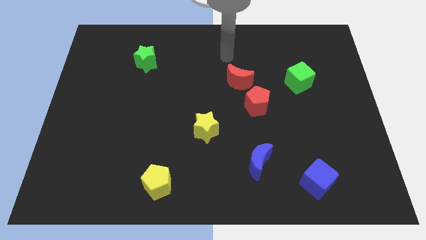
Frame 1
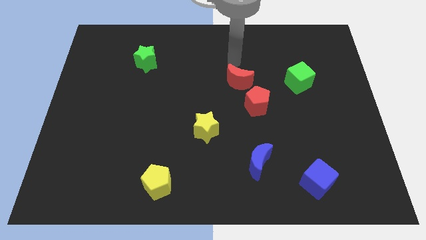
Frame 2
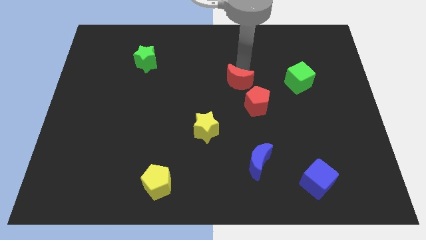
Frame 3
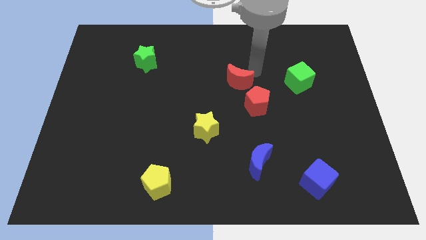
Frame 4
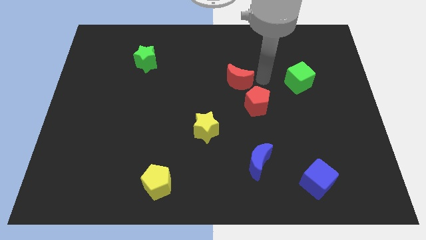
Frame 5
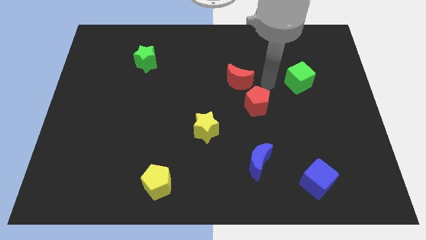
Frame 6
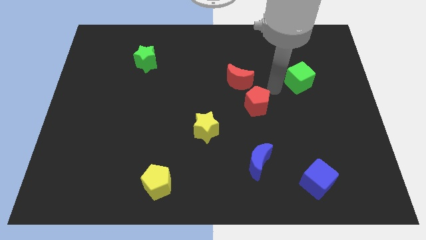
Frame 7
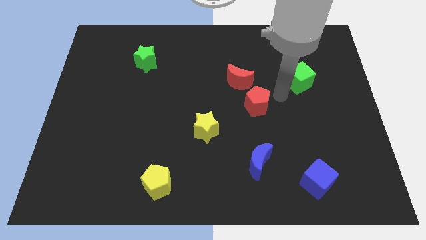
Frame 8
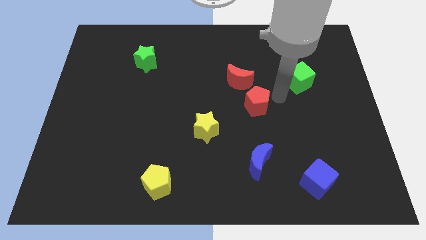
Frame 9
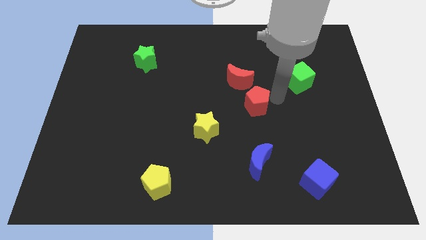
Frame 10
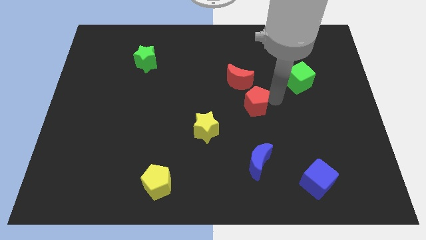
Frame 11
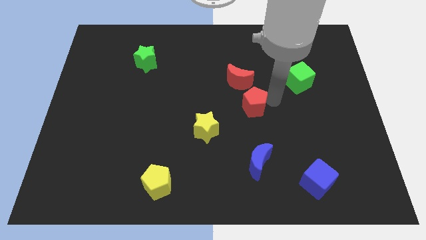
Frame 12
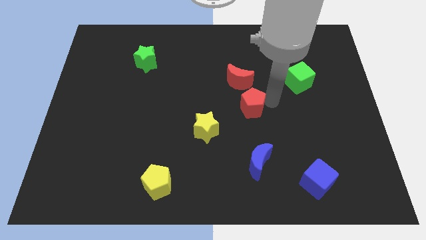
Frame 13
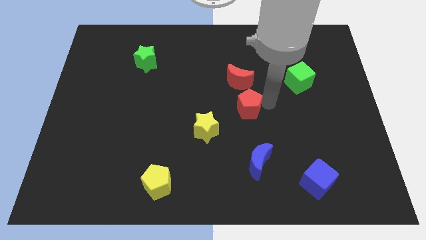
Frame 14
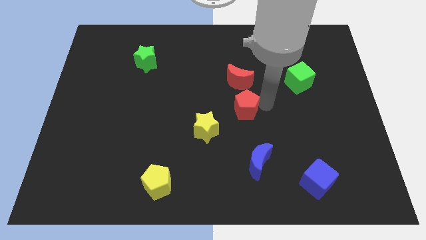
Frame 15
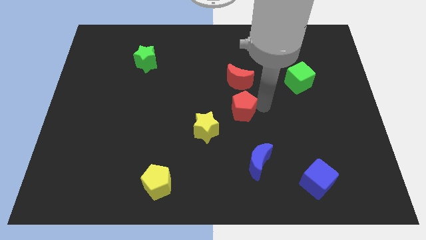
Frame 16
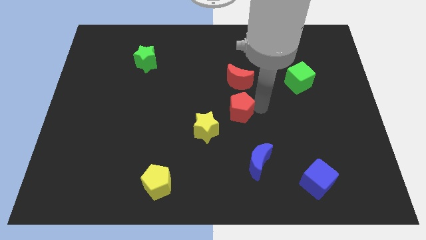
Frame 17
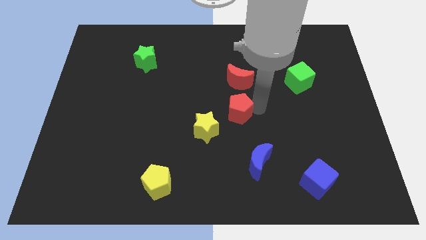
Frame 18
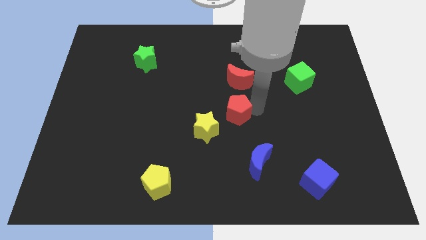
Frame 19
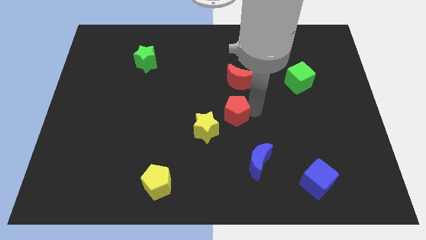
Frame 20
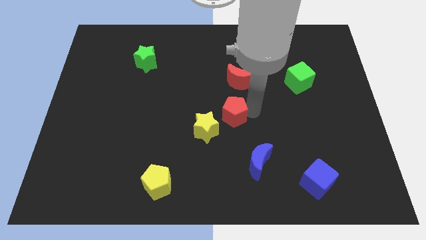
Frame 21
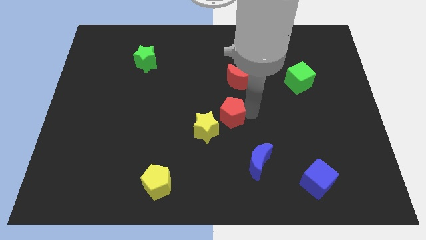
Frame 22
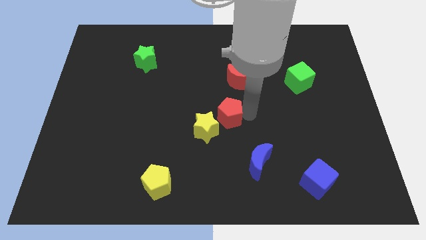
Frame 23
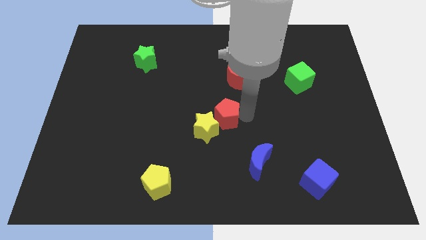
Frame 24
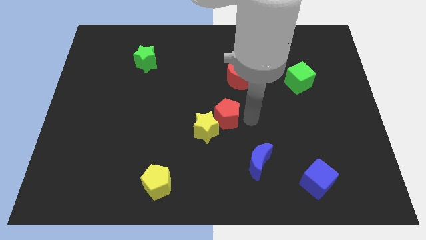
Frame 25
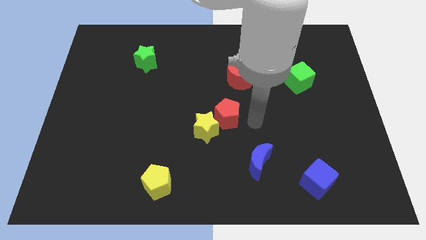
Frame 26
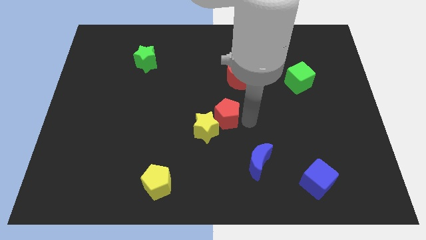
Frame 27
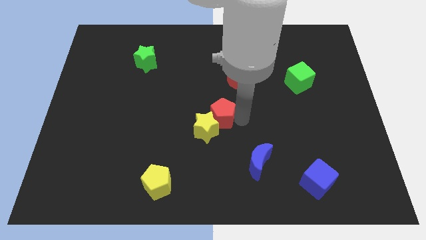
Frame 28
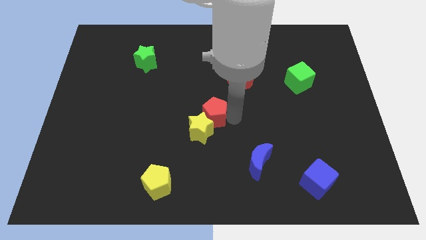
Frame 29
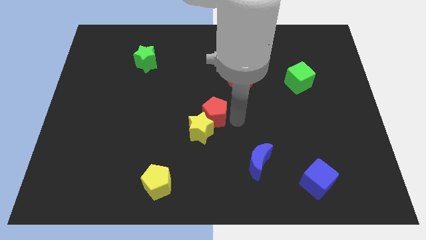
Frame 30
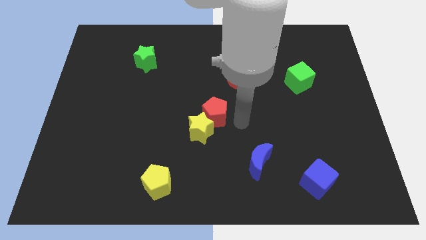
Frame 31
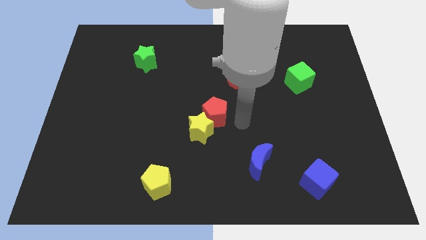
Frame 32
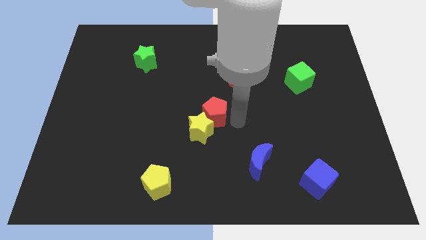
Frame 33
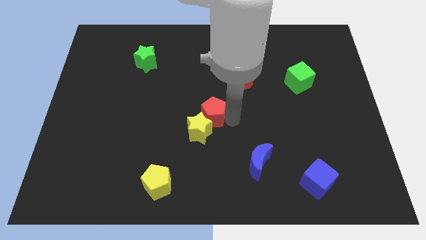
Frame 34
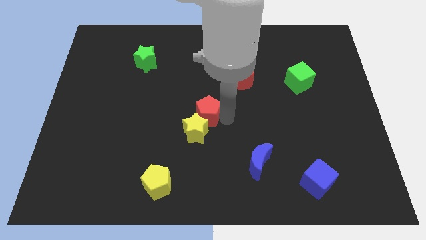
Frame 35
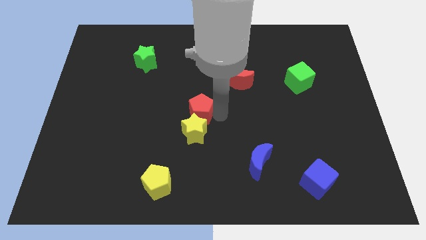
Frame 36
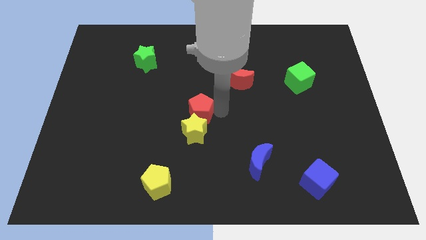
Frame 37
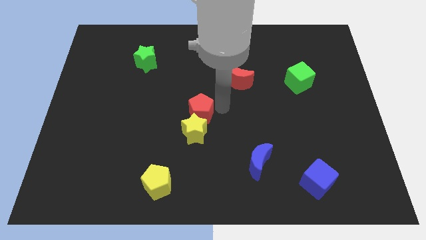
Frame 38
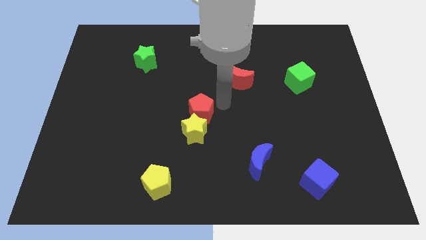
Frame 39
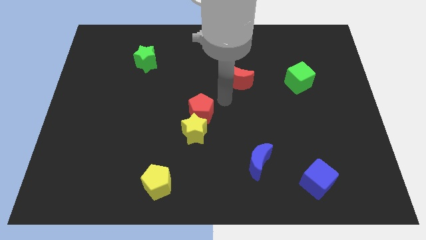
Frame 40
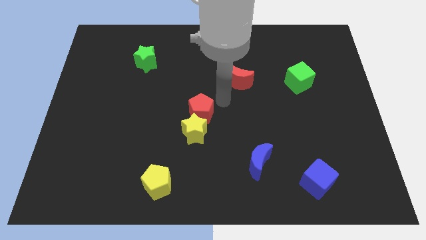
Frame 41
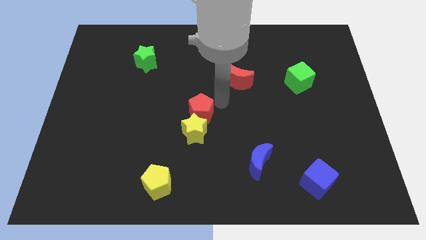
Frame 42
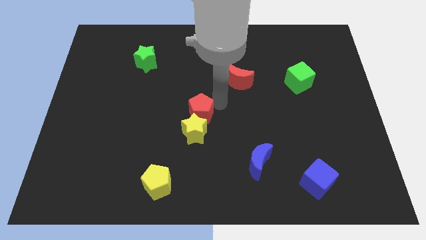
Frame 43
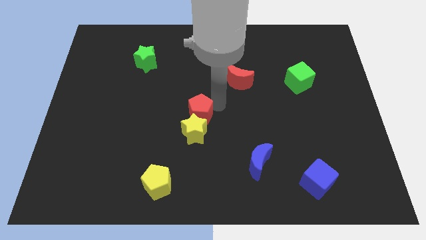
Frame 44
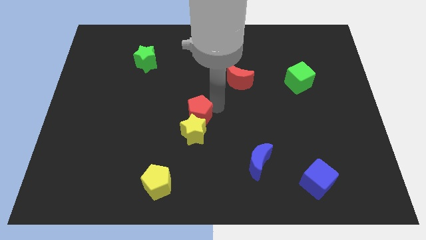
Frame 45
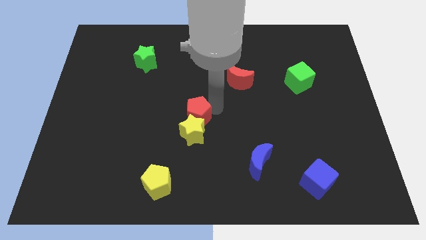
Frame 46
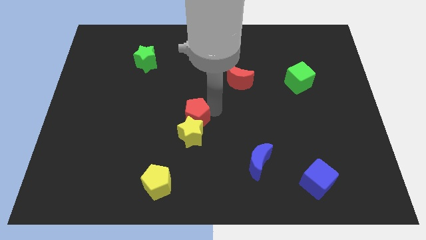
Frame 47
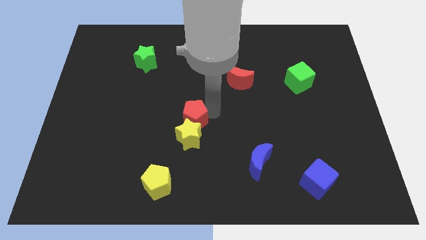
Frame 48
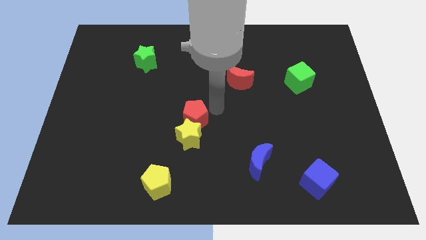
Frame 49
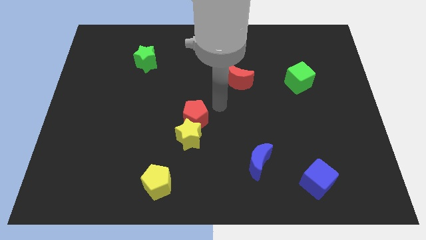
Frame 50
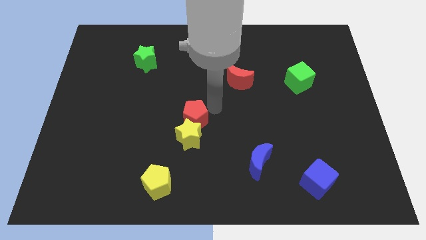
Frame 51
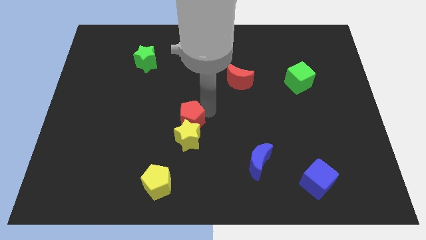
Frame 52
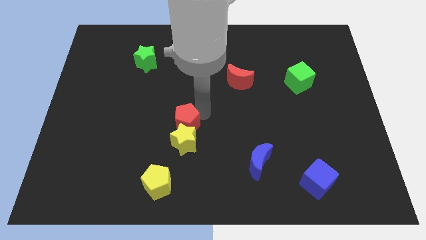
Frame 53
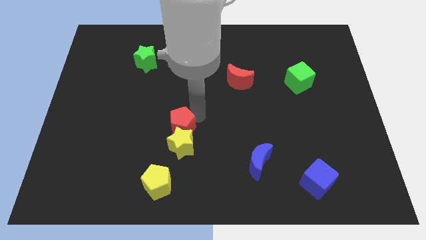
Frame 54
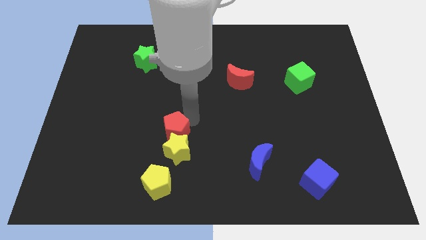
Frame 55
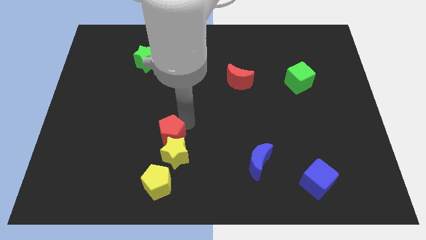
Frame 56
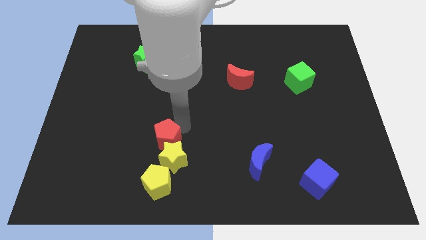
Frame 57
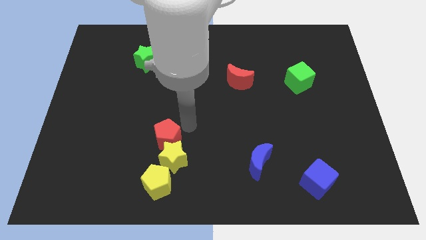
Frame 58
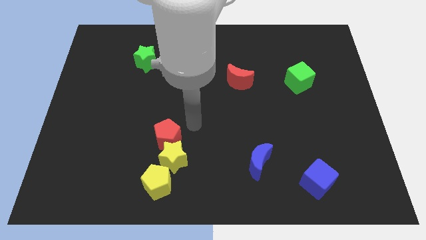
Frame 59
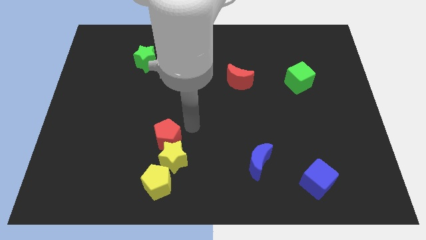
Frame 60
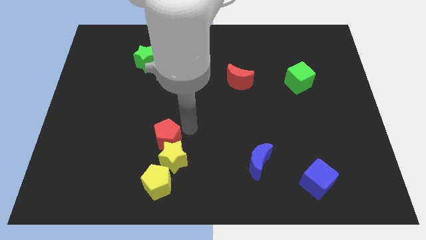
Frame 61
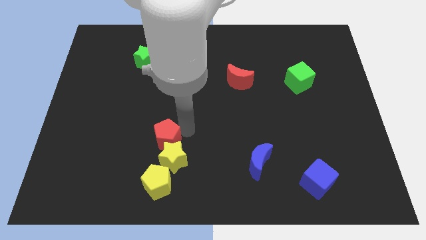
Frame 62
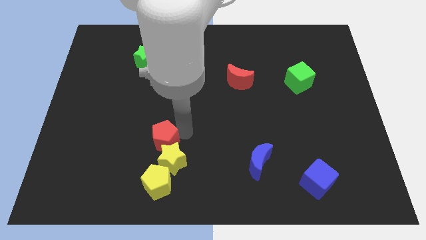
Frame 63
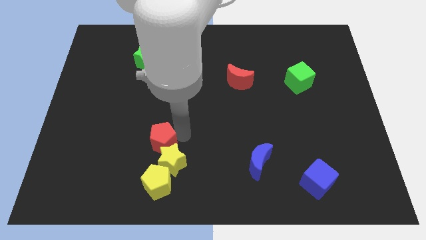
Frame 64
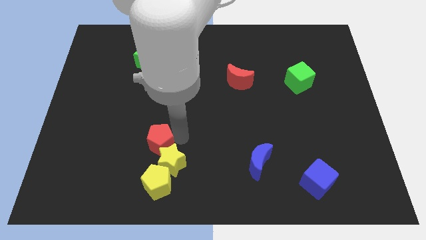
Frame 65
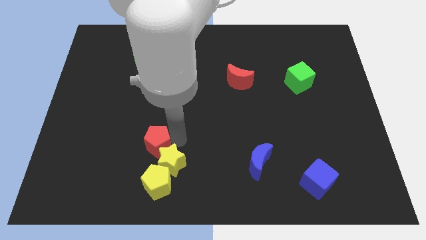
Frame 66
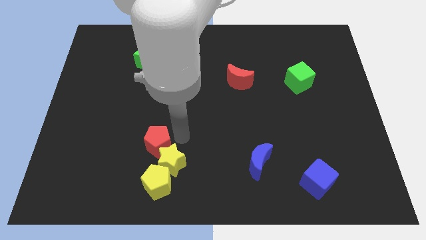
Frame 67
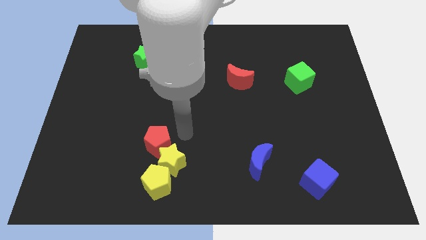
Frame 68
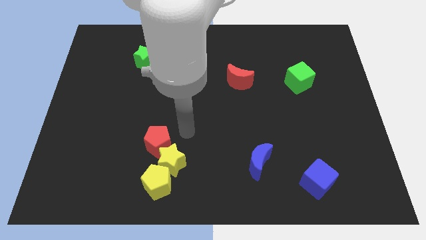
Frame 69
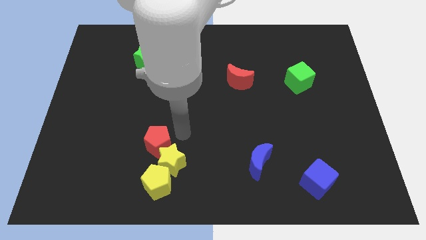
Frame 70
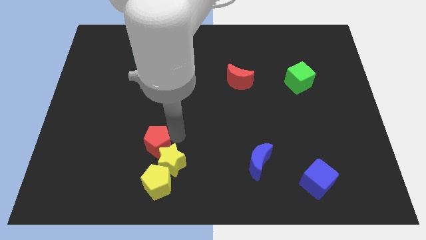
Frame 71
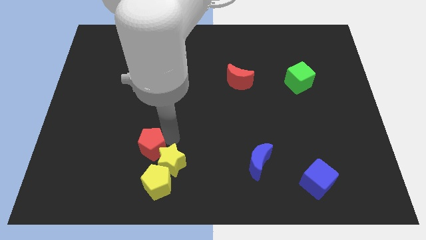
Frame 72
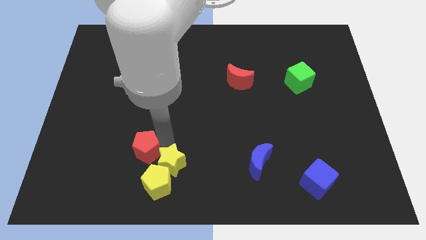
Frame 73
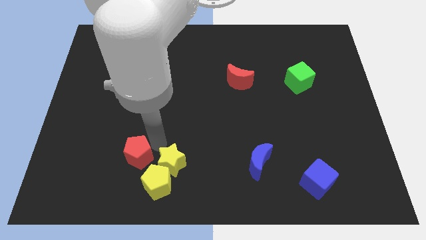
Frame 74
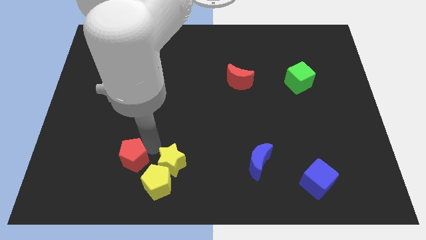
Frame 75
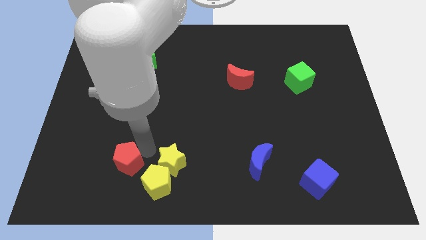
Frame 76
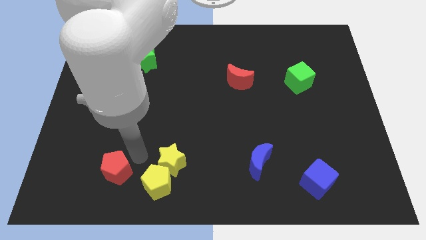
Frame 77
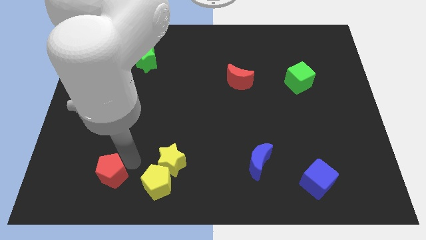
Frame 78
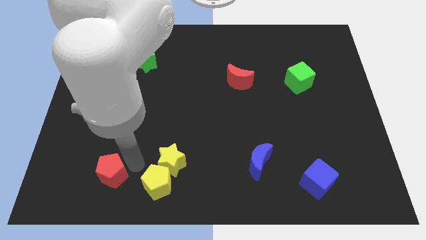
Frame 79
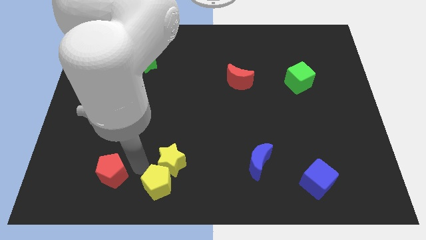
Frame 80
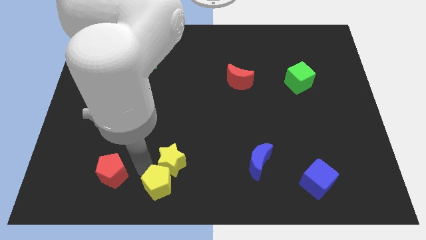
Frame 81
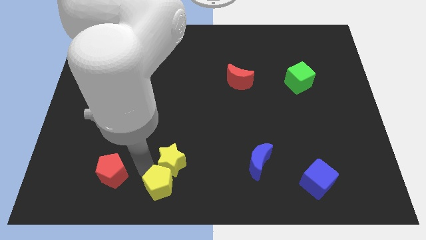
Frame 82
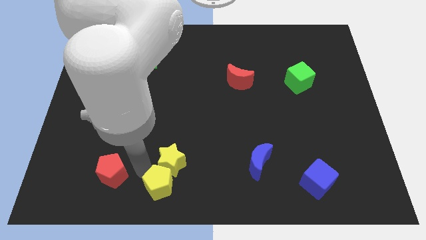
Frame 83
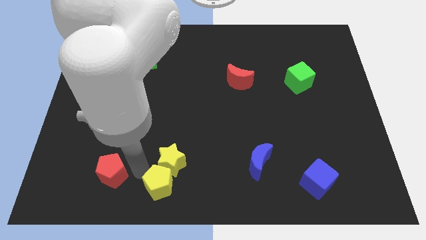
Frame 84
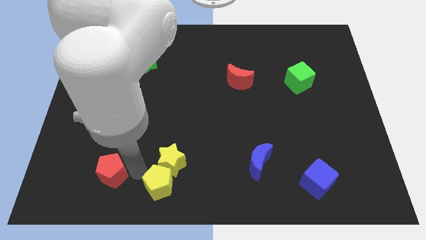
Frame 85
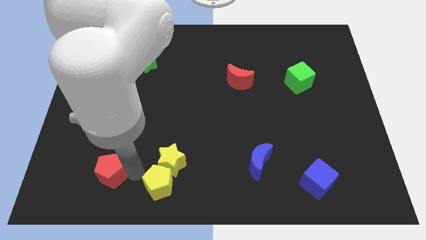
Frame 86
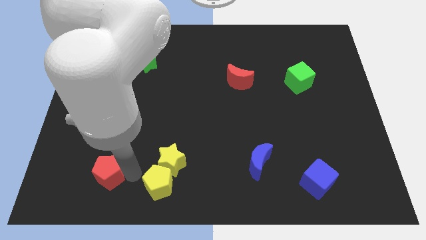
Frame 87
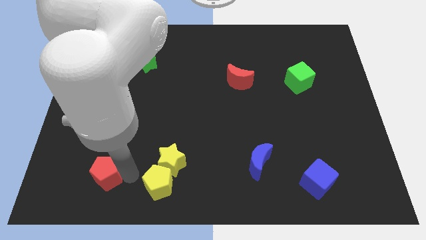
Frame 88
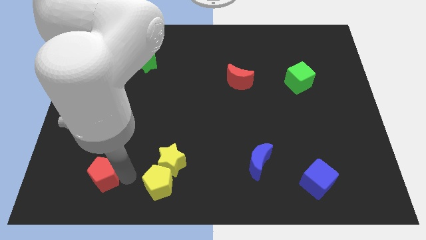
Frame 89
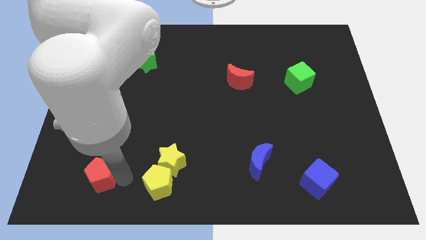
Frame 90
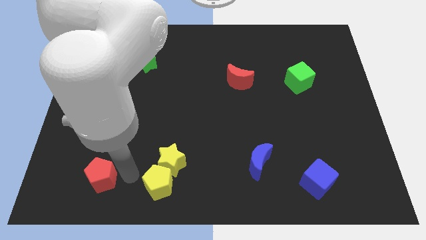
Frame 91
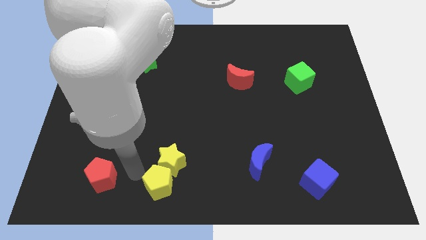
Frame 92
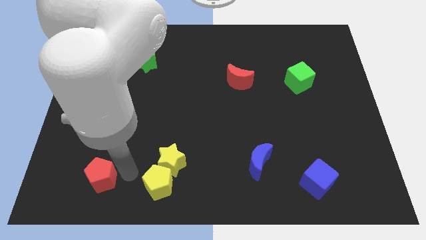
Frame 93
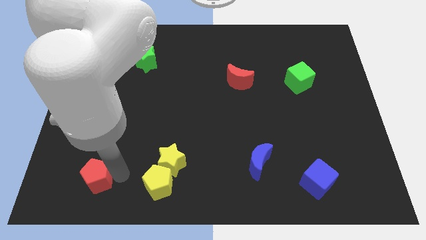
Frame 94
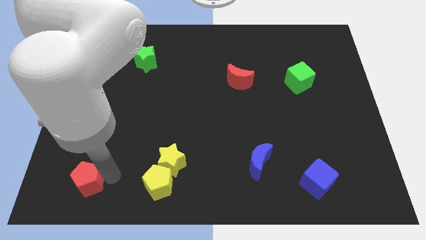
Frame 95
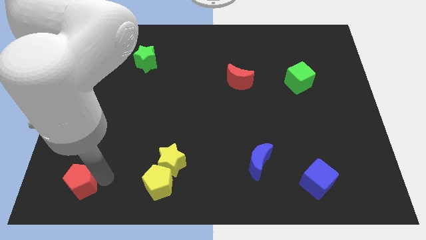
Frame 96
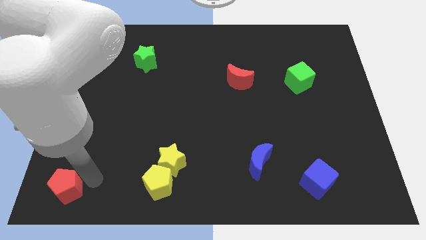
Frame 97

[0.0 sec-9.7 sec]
put the red pentagon to the bottom left
